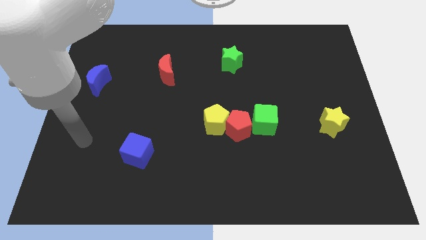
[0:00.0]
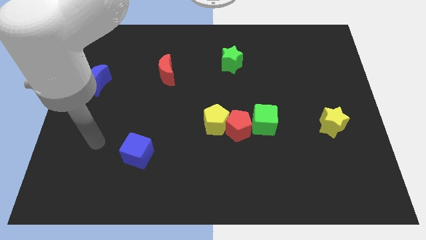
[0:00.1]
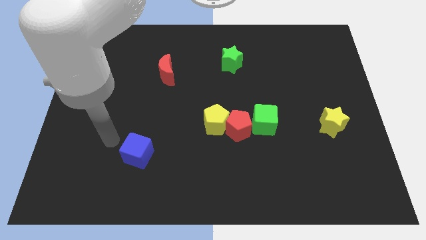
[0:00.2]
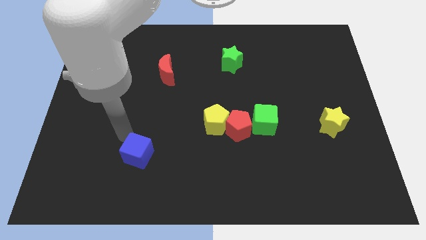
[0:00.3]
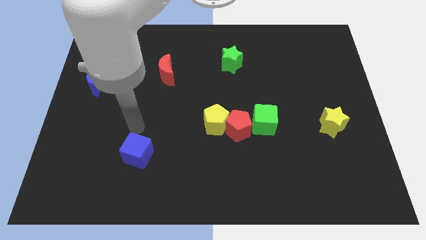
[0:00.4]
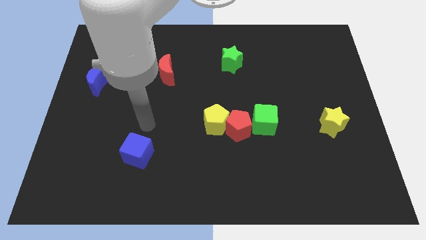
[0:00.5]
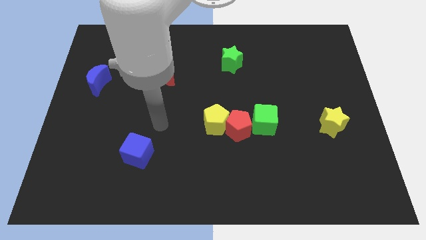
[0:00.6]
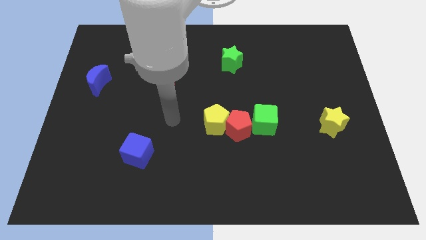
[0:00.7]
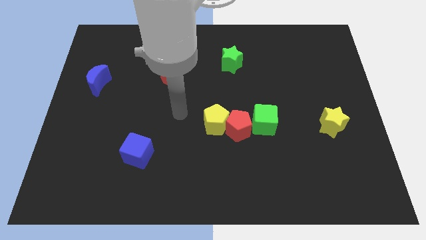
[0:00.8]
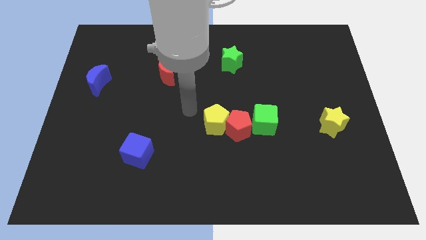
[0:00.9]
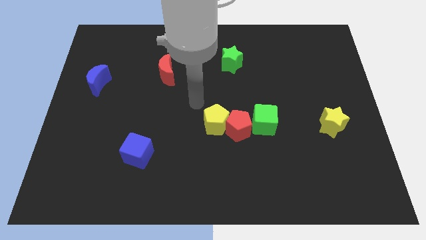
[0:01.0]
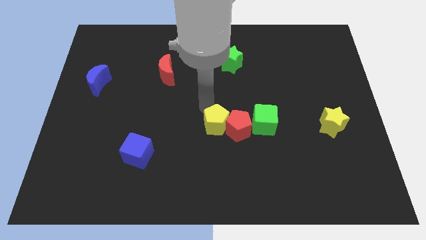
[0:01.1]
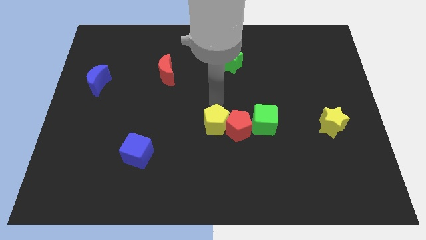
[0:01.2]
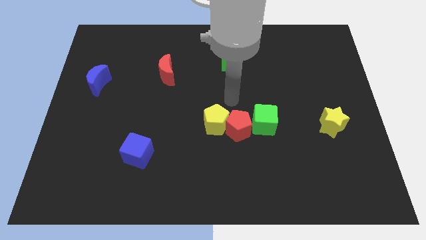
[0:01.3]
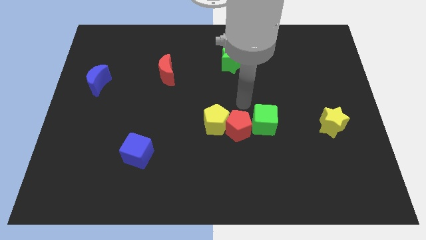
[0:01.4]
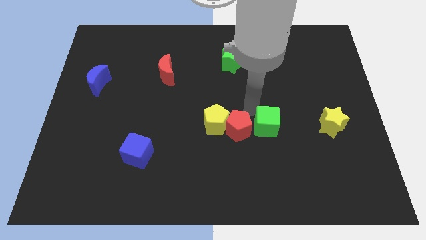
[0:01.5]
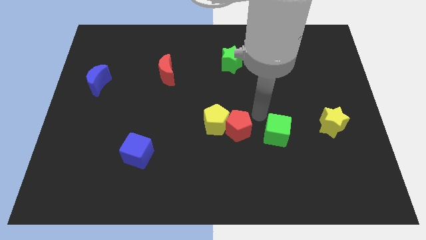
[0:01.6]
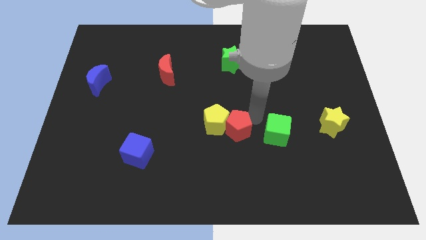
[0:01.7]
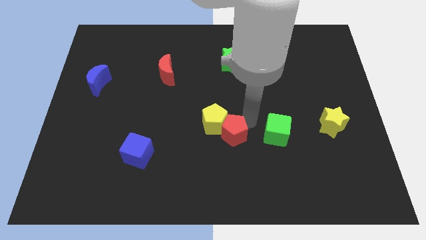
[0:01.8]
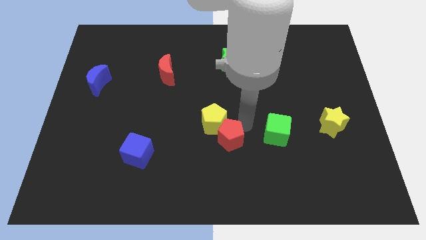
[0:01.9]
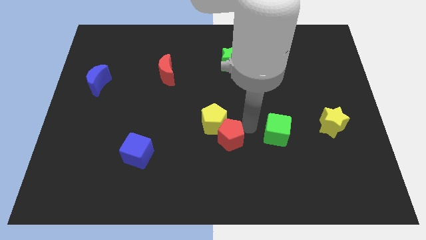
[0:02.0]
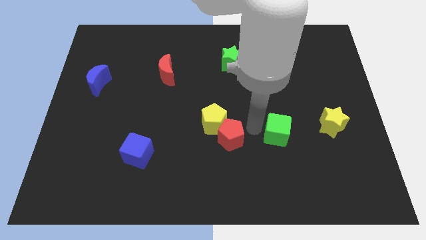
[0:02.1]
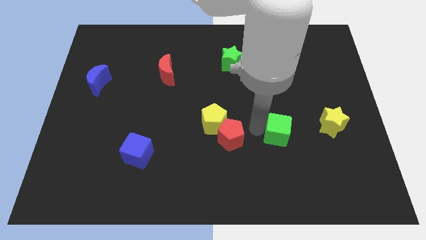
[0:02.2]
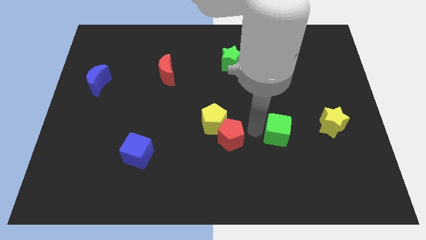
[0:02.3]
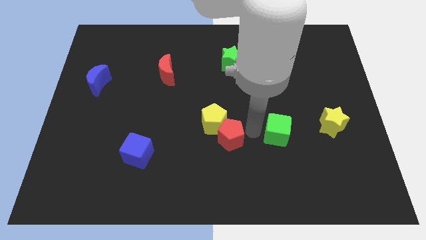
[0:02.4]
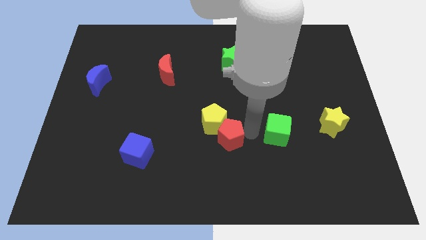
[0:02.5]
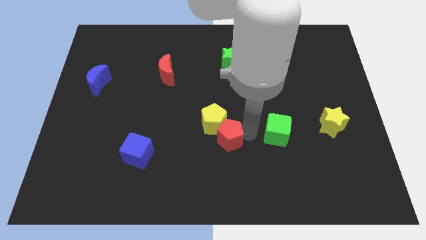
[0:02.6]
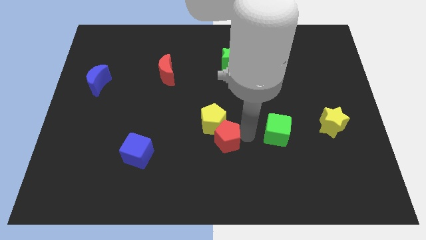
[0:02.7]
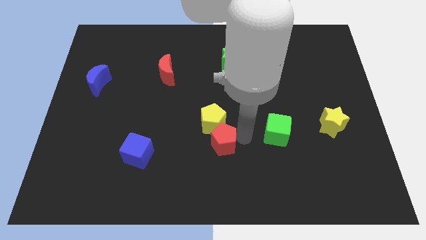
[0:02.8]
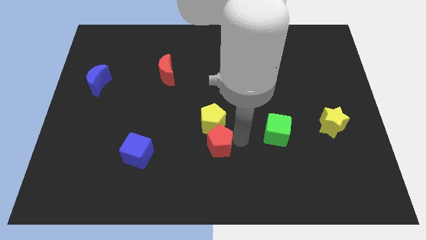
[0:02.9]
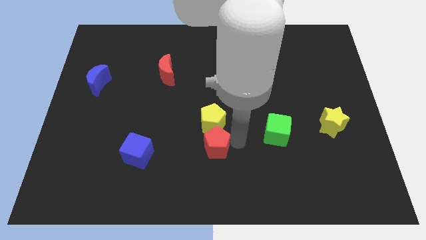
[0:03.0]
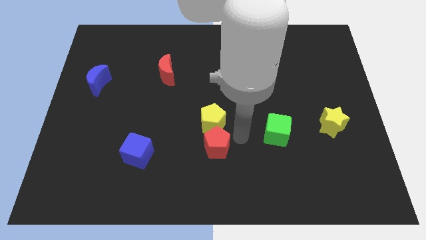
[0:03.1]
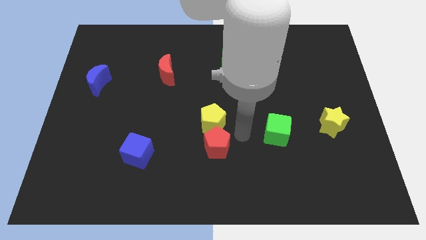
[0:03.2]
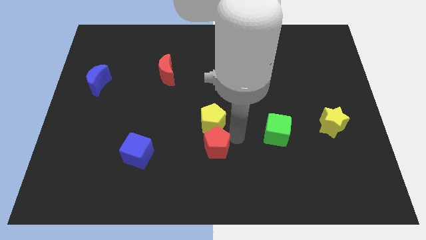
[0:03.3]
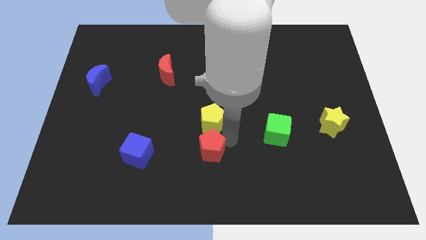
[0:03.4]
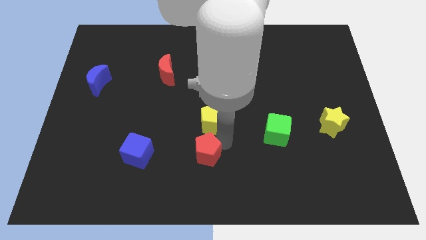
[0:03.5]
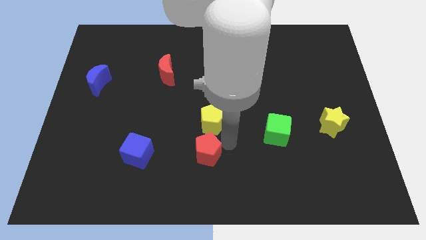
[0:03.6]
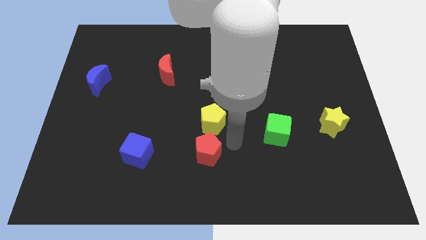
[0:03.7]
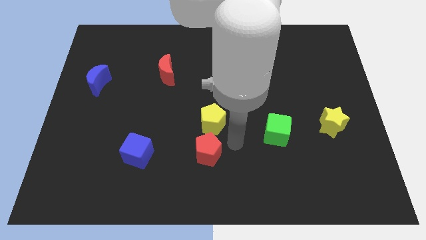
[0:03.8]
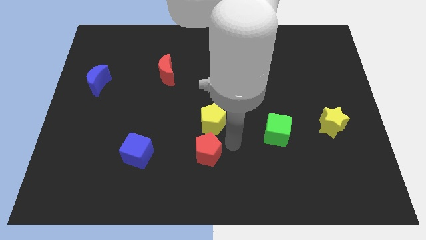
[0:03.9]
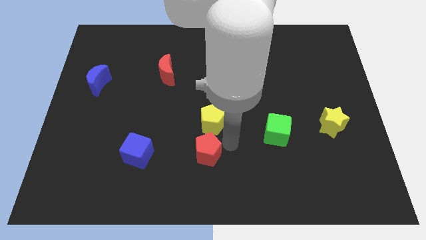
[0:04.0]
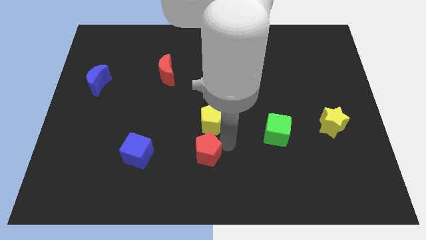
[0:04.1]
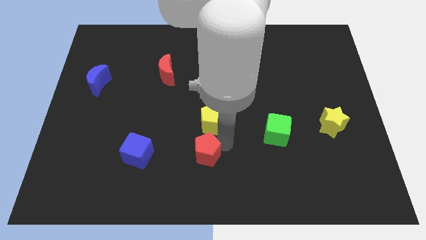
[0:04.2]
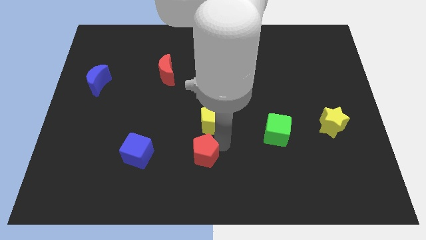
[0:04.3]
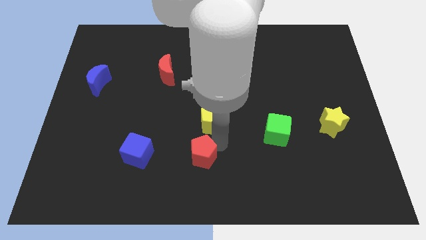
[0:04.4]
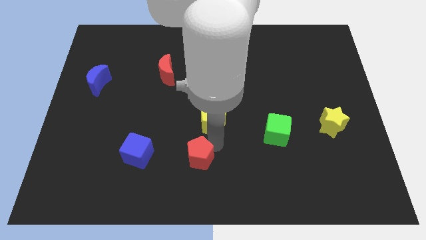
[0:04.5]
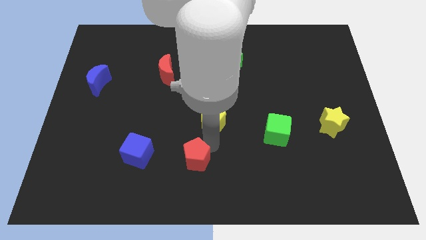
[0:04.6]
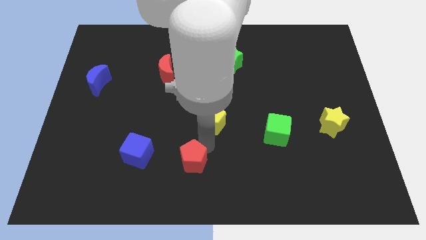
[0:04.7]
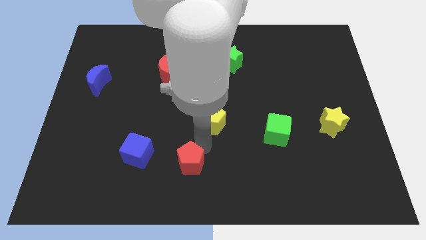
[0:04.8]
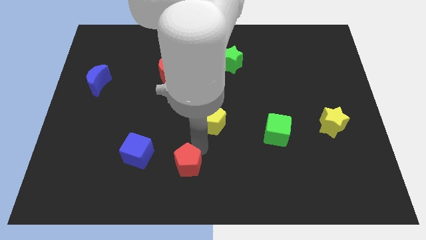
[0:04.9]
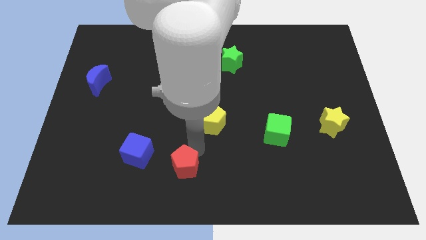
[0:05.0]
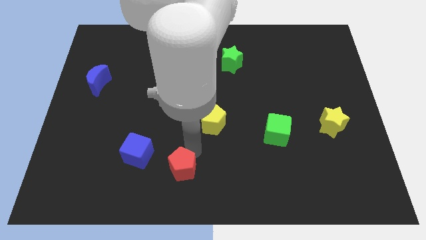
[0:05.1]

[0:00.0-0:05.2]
move the red pentagon to the bottom right of the blue cube

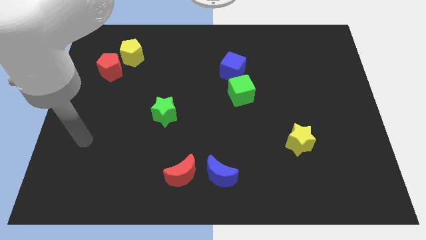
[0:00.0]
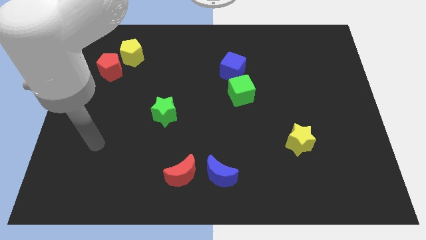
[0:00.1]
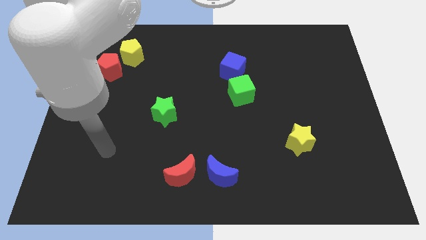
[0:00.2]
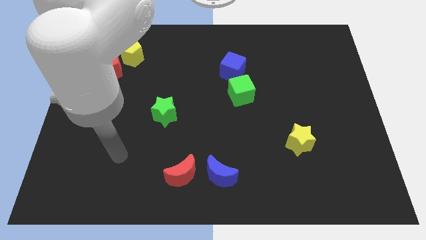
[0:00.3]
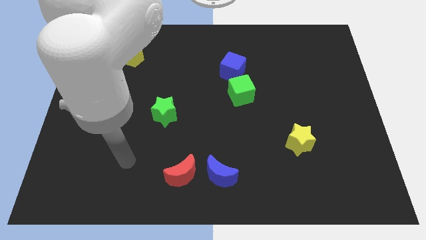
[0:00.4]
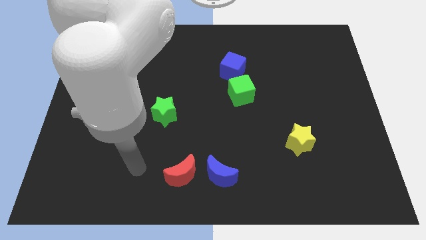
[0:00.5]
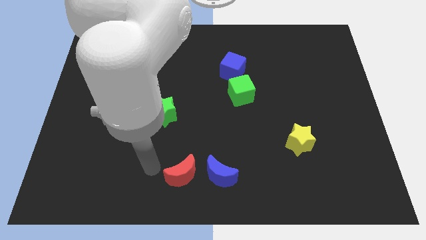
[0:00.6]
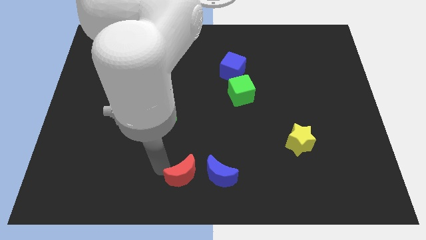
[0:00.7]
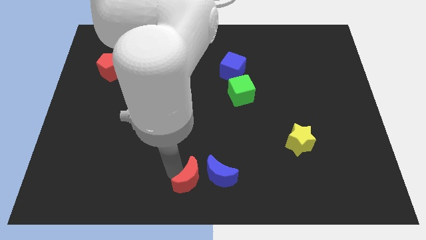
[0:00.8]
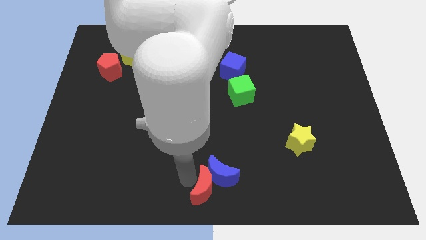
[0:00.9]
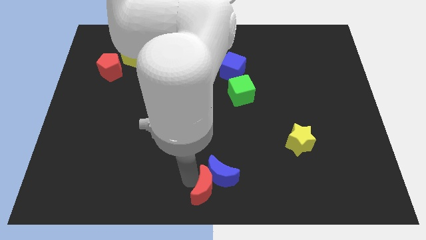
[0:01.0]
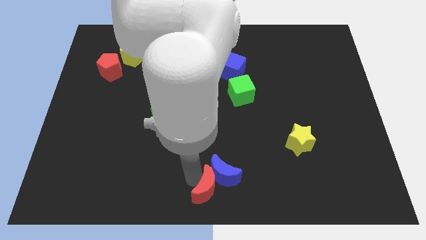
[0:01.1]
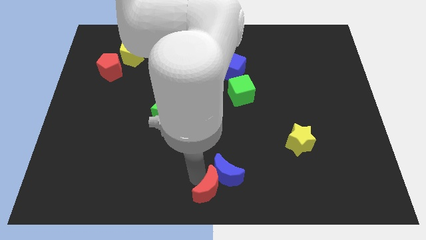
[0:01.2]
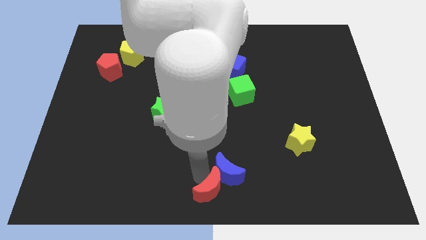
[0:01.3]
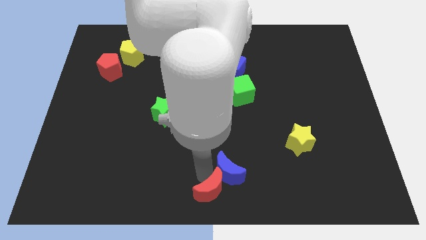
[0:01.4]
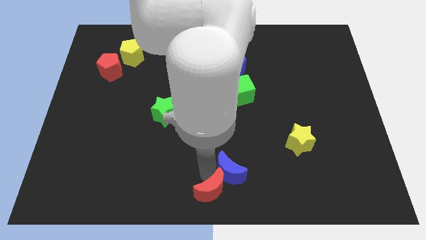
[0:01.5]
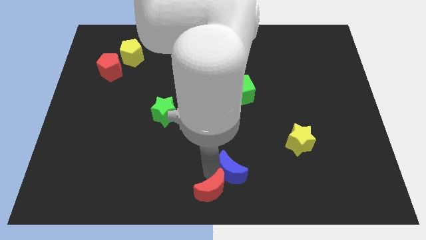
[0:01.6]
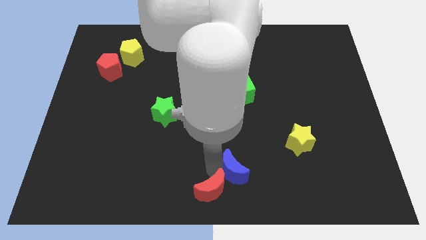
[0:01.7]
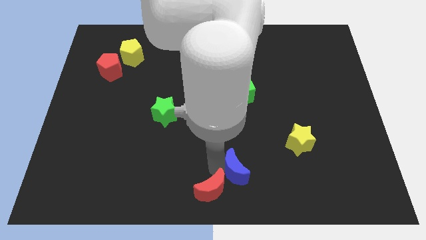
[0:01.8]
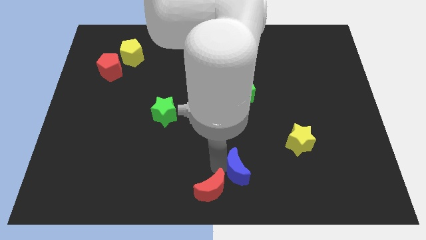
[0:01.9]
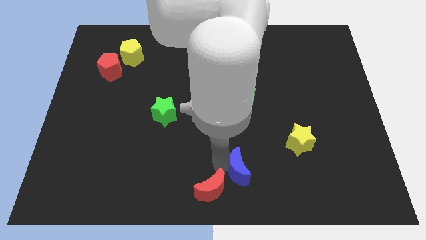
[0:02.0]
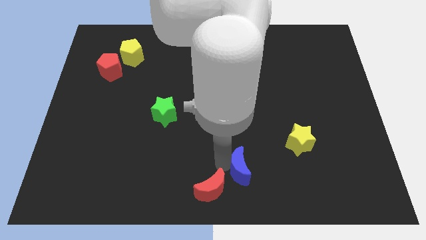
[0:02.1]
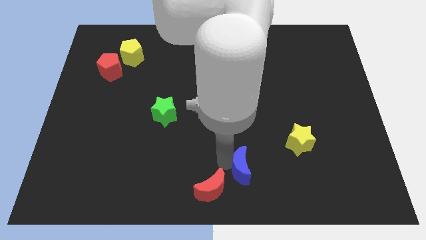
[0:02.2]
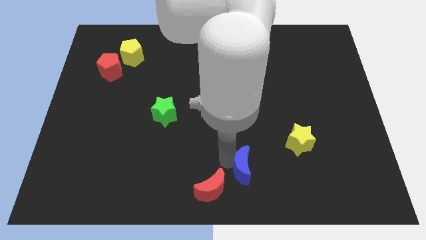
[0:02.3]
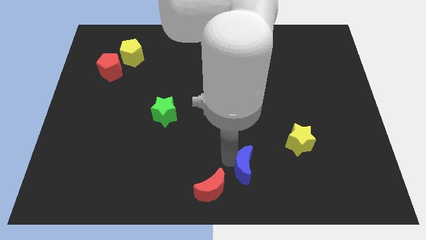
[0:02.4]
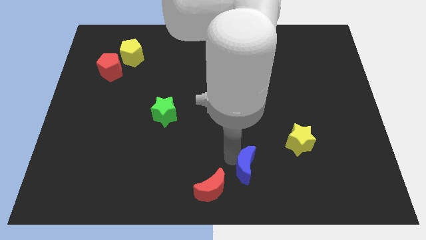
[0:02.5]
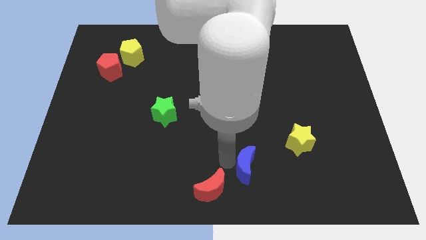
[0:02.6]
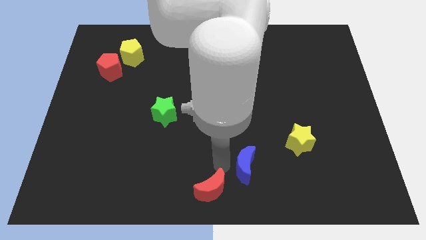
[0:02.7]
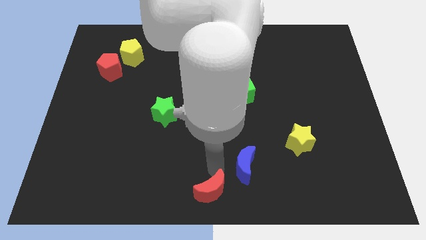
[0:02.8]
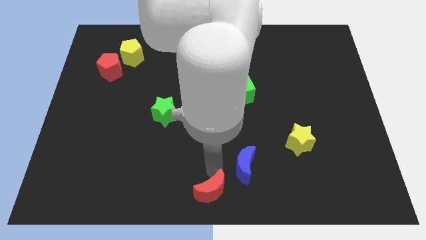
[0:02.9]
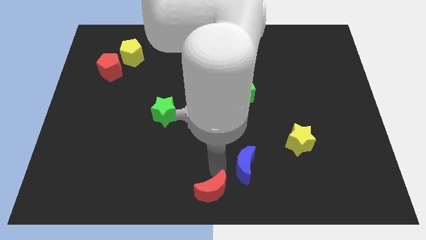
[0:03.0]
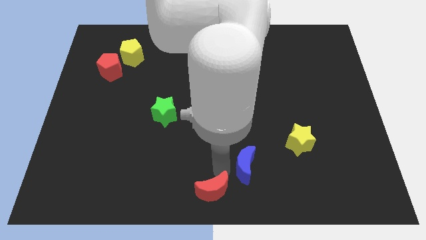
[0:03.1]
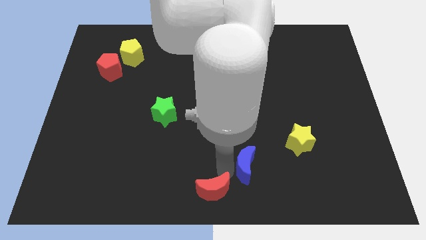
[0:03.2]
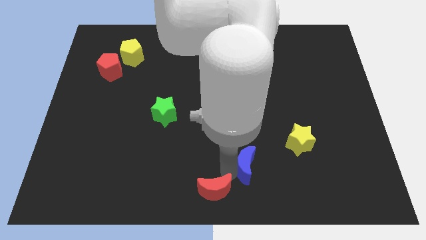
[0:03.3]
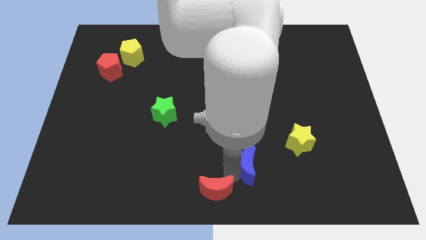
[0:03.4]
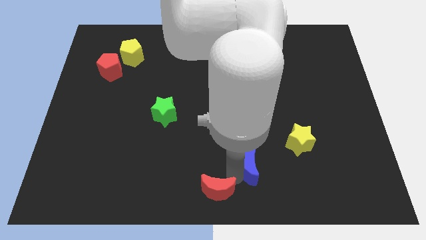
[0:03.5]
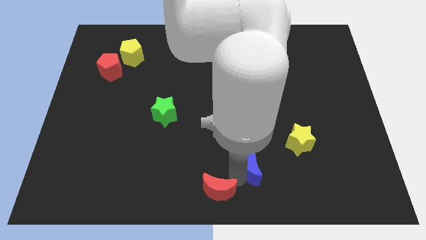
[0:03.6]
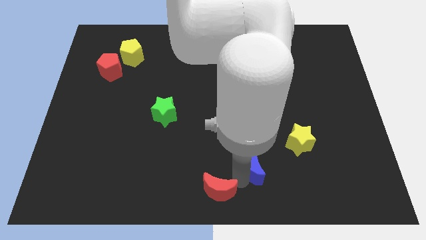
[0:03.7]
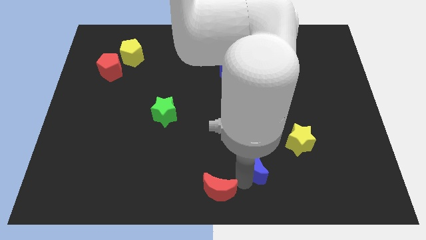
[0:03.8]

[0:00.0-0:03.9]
put the blue moon to the bottom left of the yellow star
